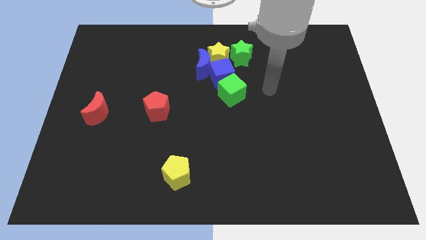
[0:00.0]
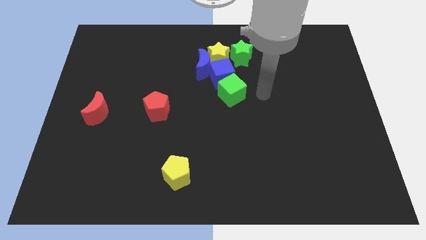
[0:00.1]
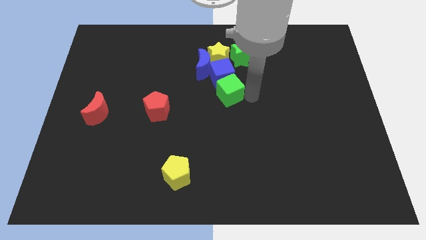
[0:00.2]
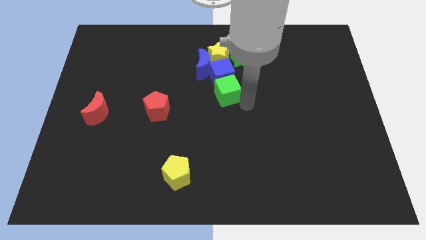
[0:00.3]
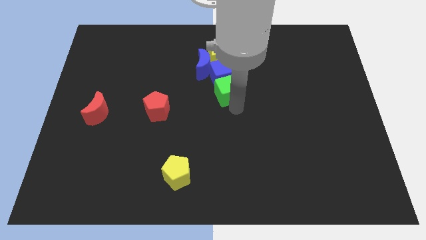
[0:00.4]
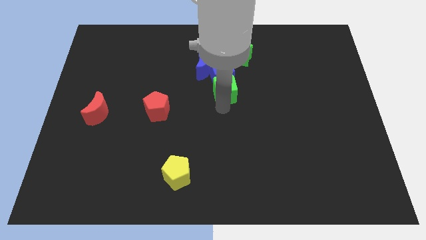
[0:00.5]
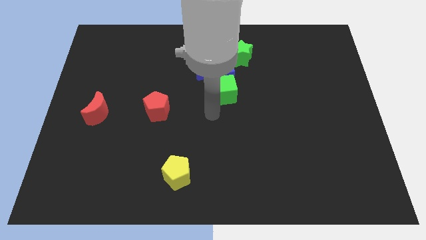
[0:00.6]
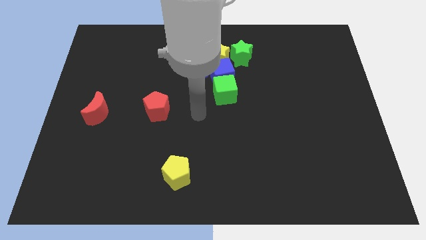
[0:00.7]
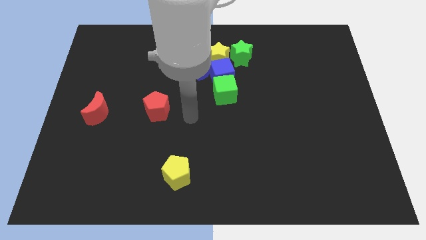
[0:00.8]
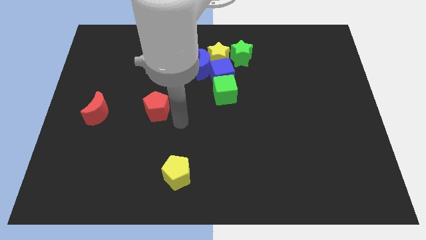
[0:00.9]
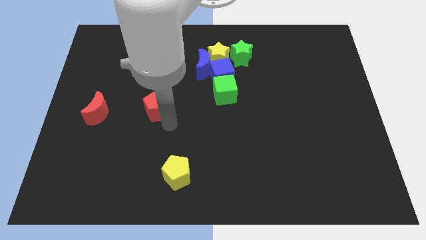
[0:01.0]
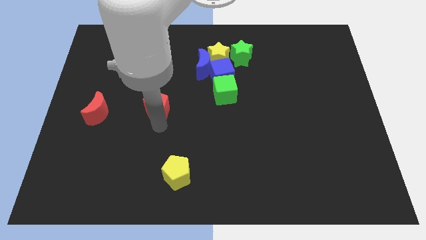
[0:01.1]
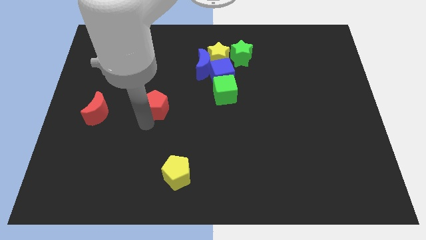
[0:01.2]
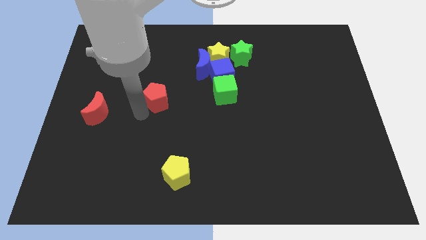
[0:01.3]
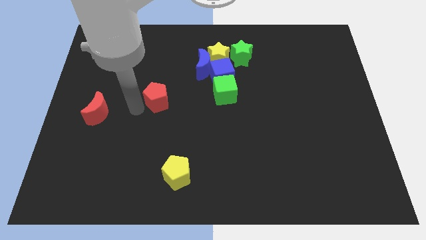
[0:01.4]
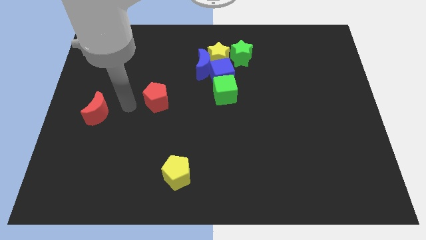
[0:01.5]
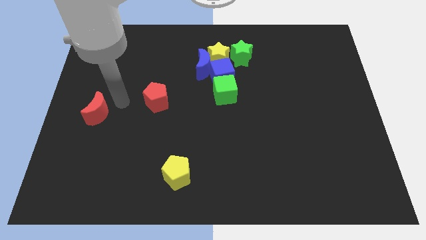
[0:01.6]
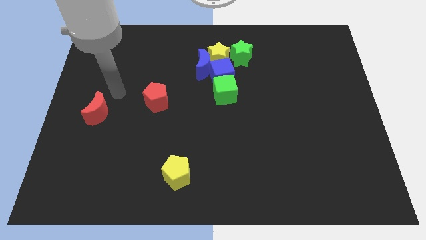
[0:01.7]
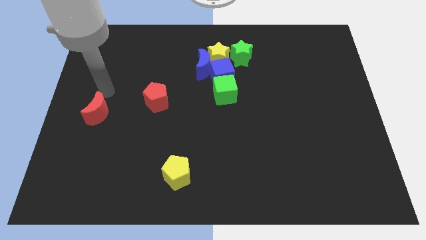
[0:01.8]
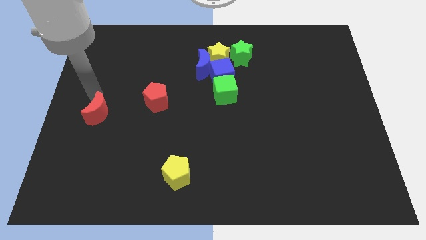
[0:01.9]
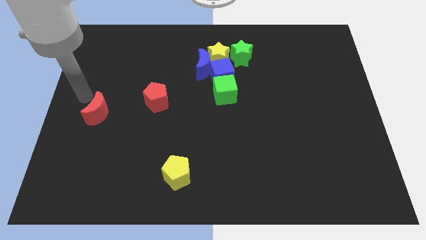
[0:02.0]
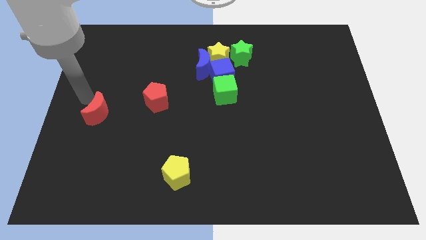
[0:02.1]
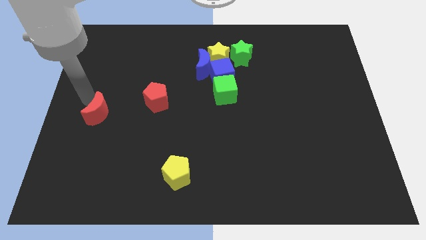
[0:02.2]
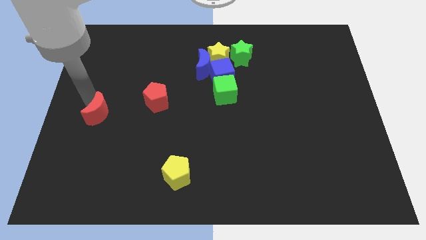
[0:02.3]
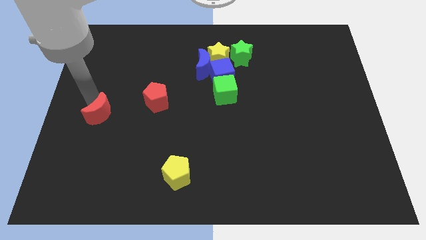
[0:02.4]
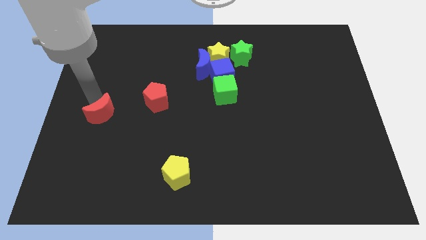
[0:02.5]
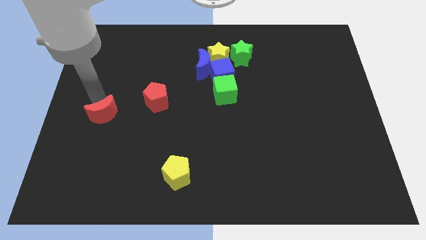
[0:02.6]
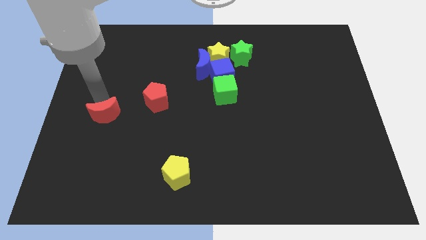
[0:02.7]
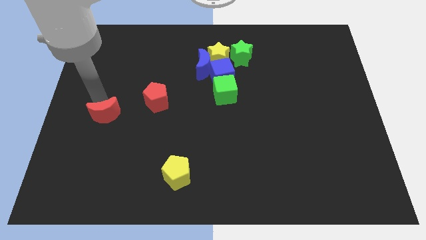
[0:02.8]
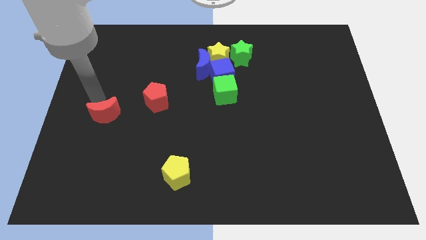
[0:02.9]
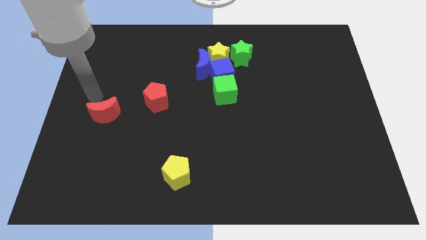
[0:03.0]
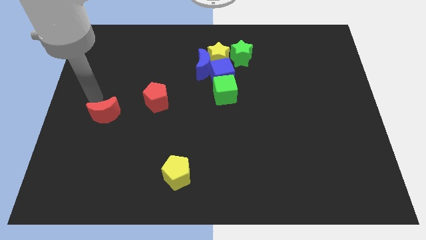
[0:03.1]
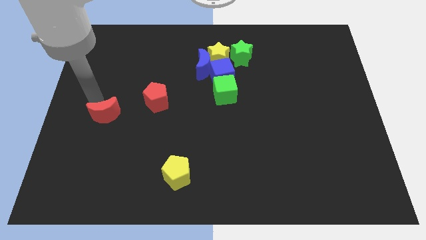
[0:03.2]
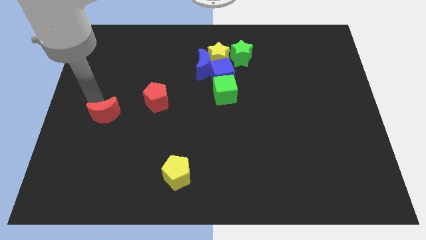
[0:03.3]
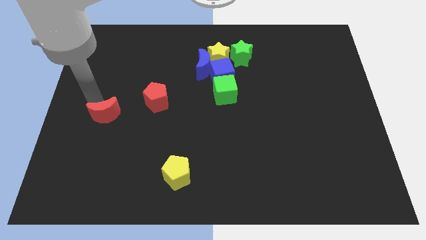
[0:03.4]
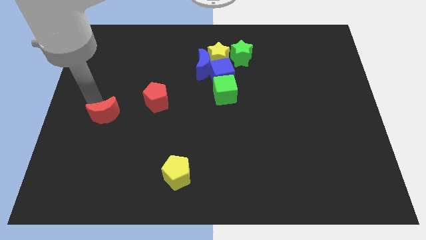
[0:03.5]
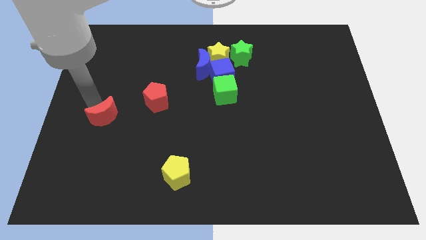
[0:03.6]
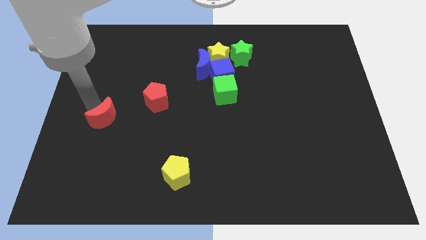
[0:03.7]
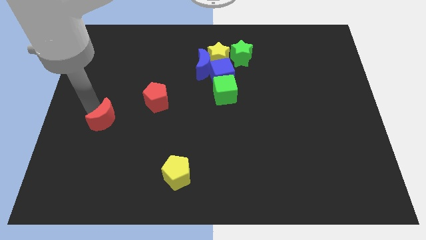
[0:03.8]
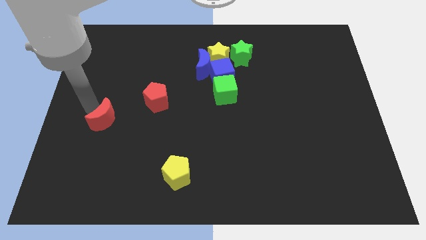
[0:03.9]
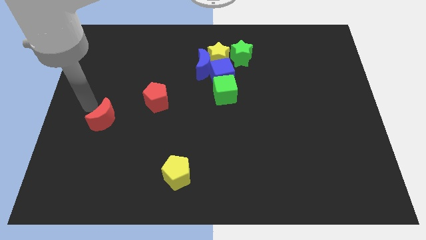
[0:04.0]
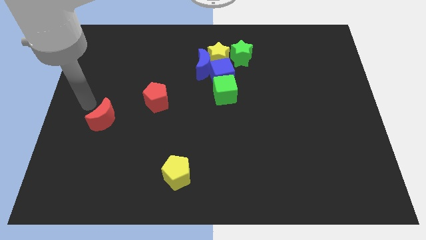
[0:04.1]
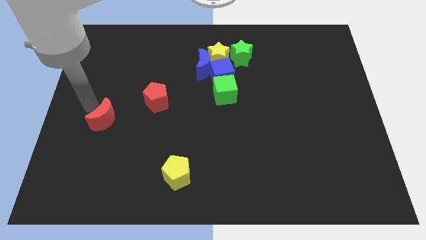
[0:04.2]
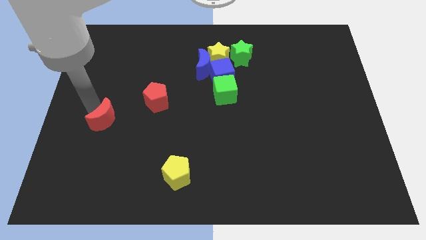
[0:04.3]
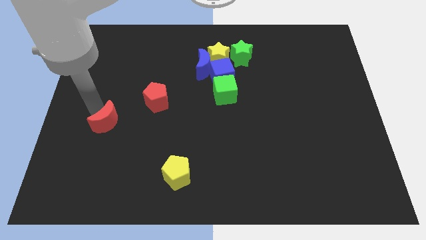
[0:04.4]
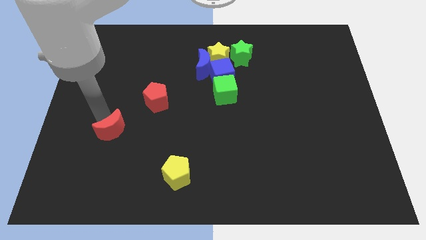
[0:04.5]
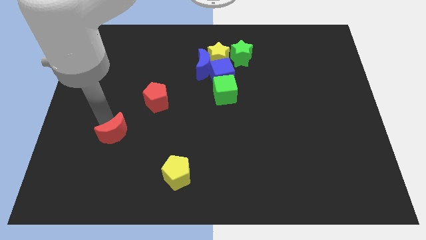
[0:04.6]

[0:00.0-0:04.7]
slide the red moon a little bit down and then right

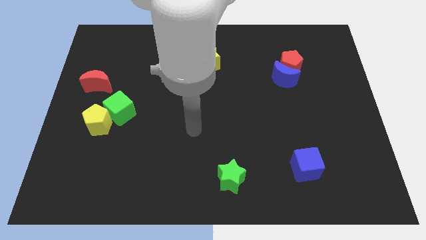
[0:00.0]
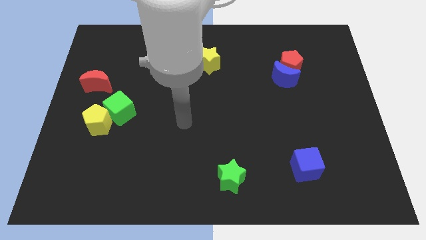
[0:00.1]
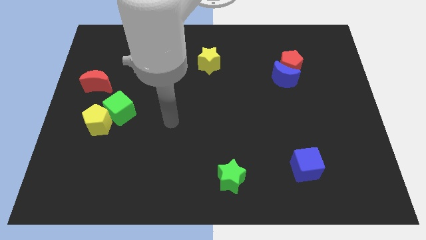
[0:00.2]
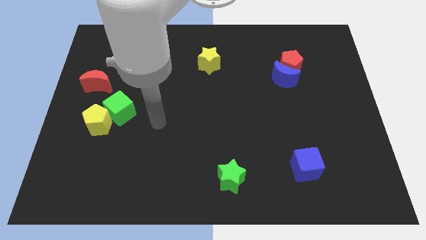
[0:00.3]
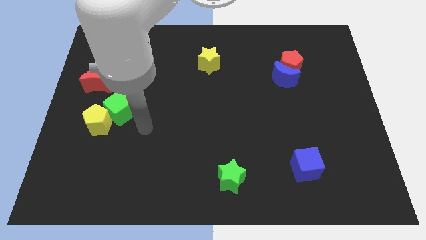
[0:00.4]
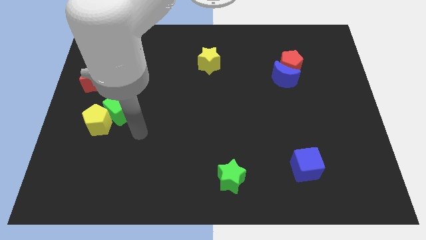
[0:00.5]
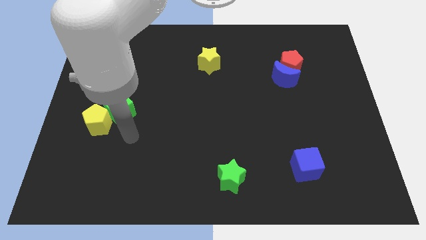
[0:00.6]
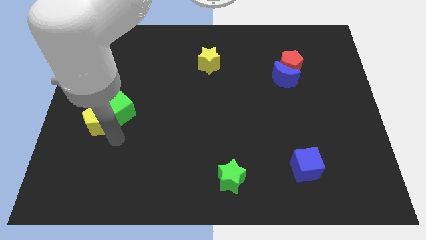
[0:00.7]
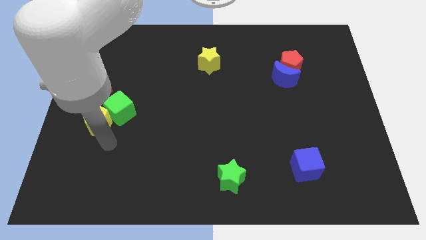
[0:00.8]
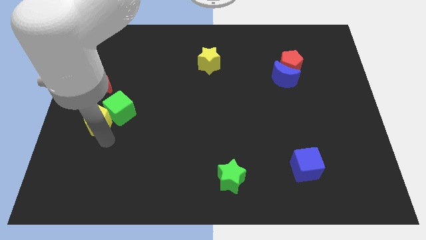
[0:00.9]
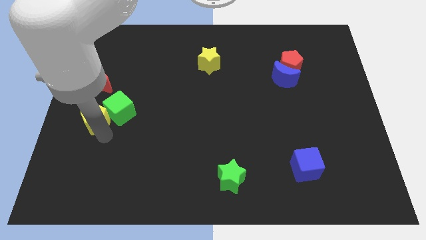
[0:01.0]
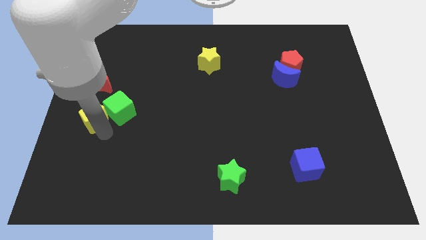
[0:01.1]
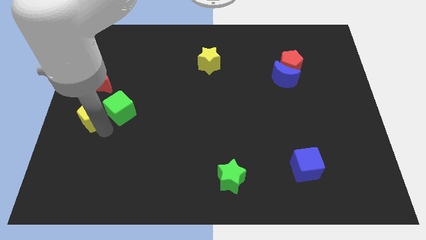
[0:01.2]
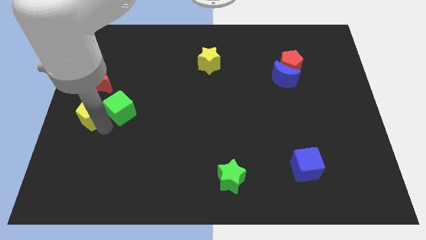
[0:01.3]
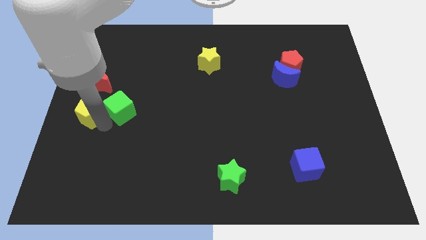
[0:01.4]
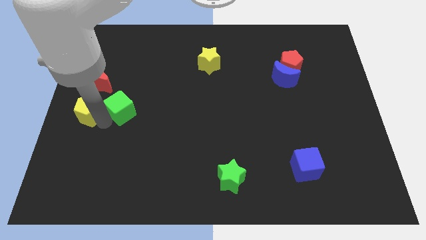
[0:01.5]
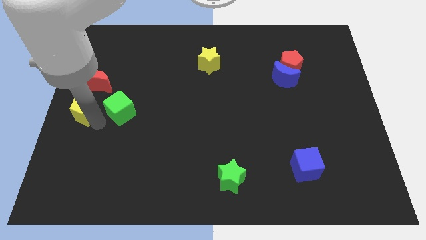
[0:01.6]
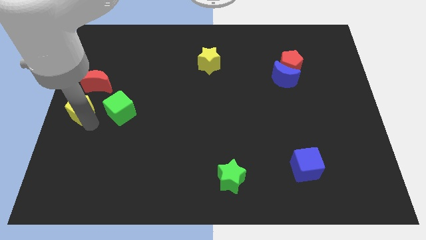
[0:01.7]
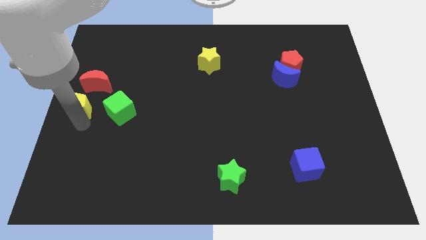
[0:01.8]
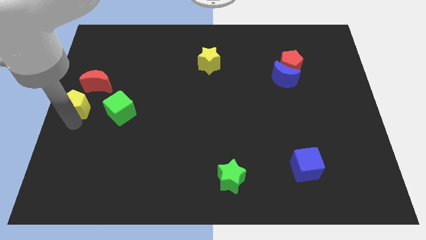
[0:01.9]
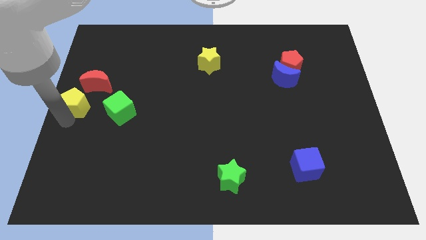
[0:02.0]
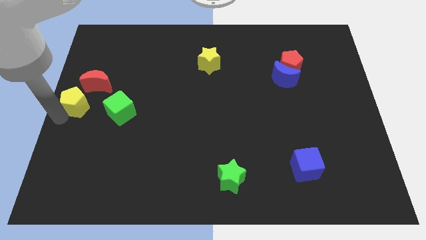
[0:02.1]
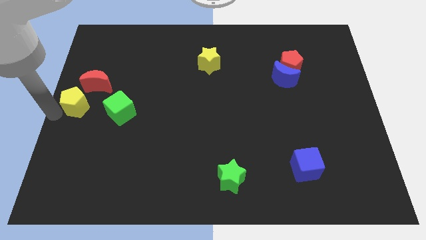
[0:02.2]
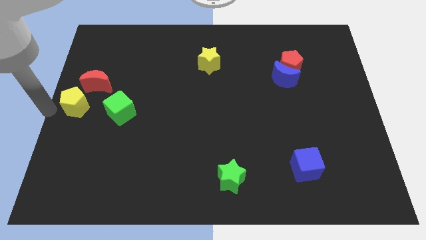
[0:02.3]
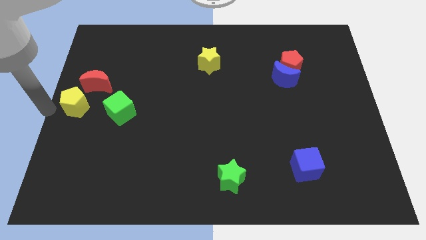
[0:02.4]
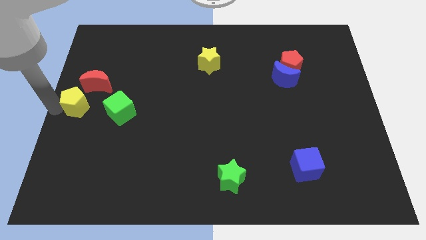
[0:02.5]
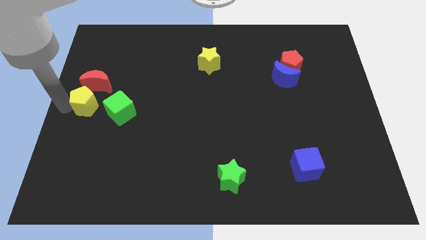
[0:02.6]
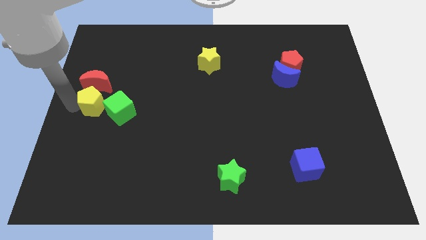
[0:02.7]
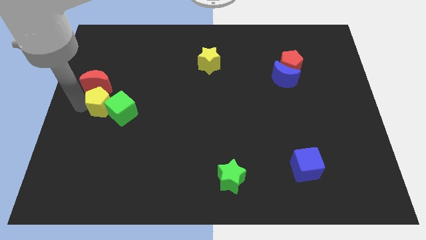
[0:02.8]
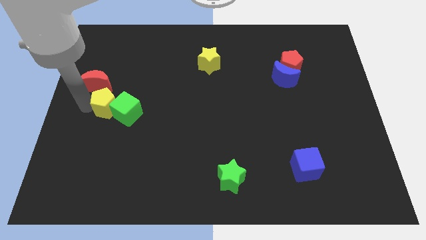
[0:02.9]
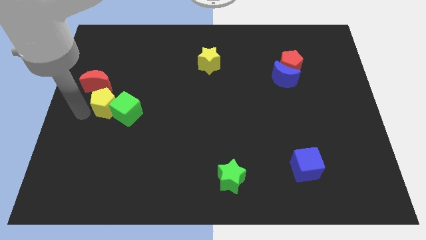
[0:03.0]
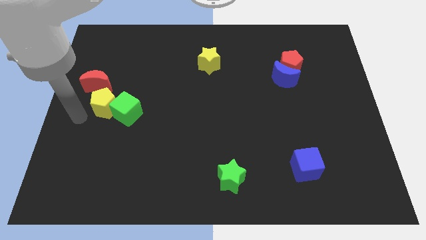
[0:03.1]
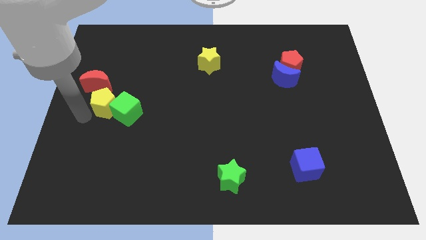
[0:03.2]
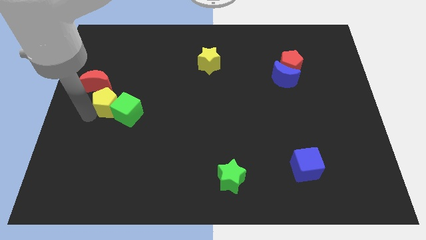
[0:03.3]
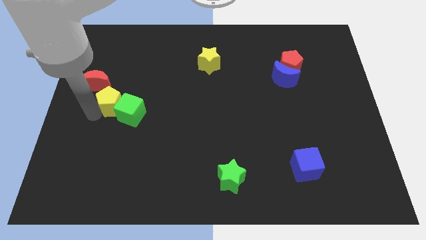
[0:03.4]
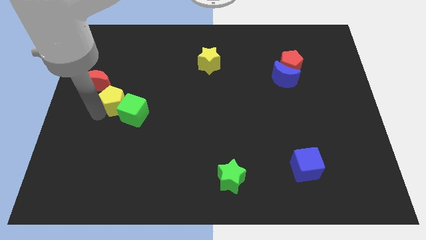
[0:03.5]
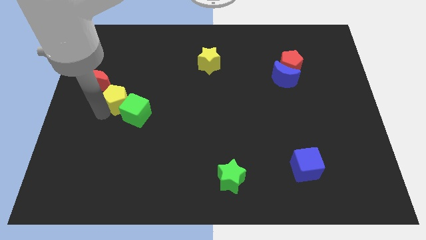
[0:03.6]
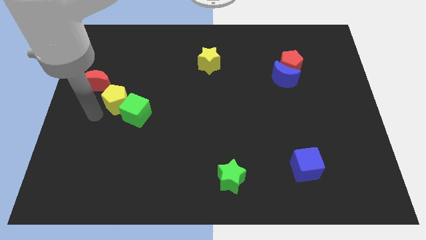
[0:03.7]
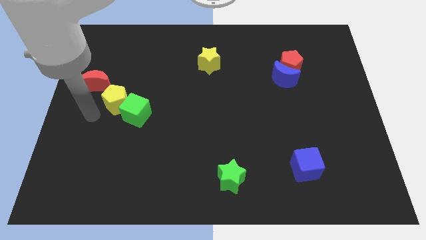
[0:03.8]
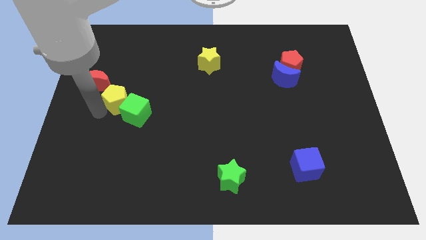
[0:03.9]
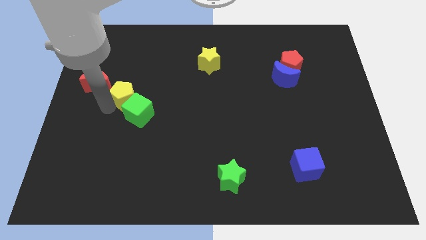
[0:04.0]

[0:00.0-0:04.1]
move the yellow pentagon slightly up and then right
